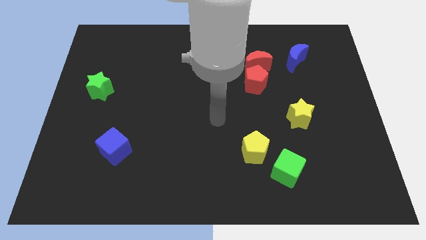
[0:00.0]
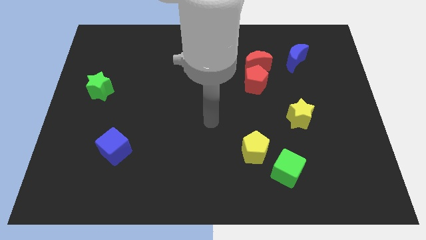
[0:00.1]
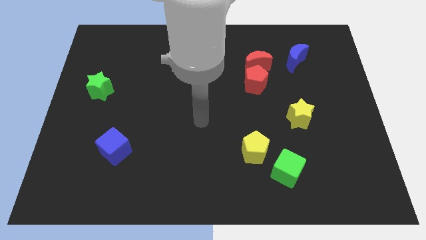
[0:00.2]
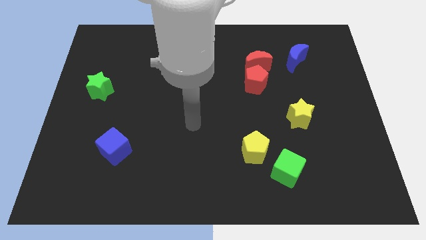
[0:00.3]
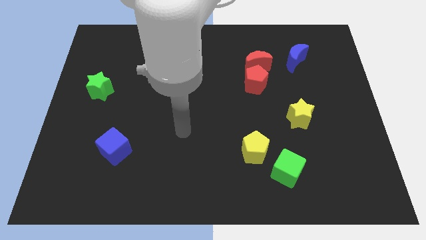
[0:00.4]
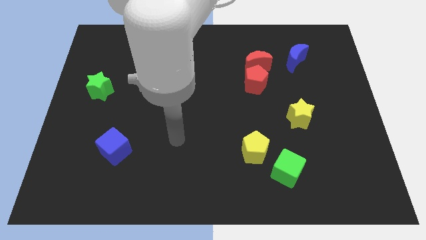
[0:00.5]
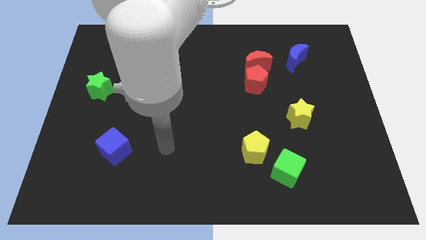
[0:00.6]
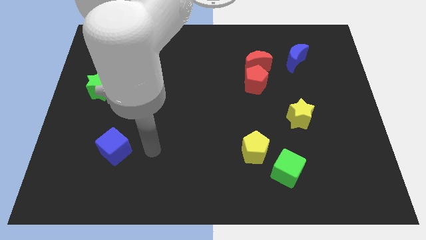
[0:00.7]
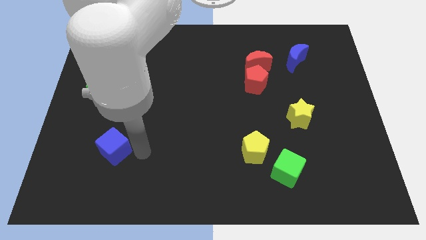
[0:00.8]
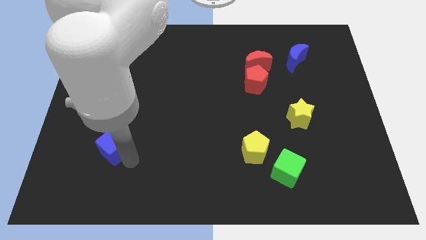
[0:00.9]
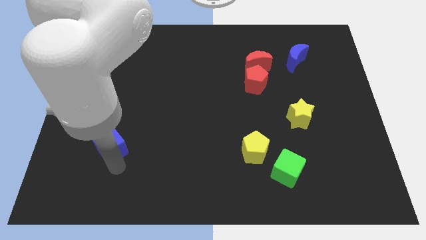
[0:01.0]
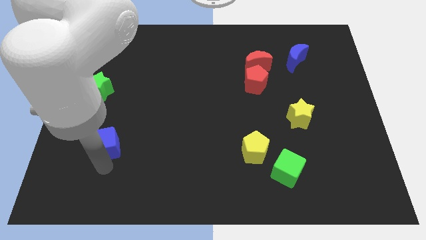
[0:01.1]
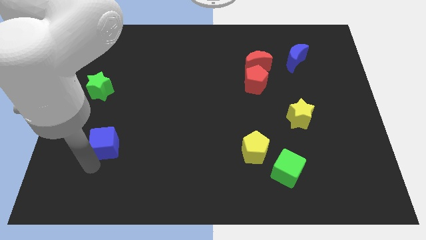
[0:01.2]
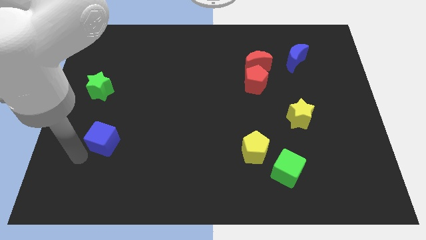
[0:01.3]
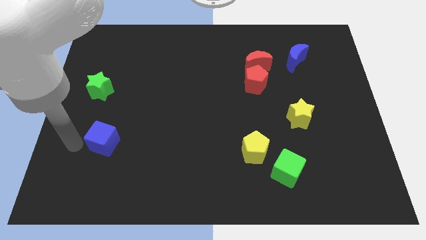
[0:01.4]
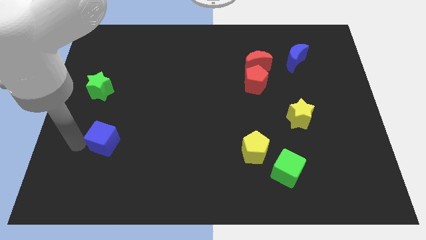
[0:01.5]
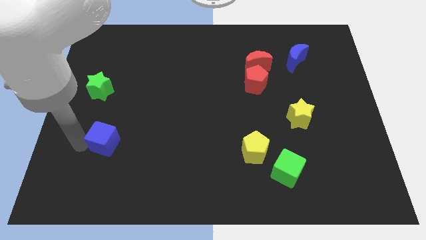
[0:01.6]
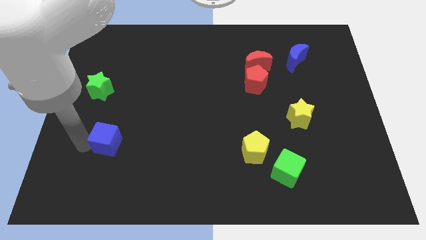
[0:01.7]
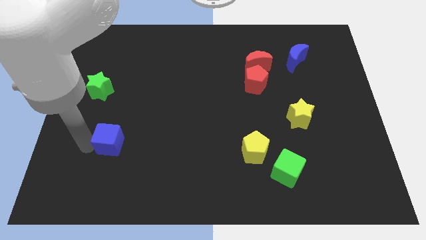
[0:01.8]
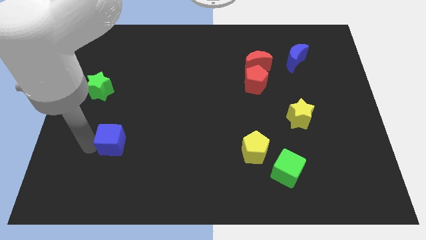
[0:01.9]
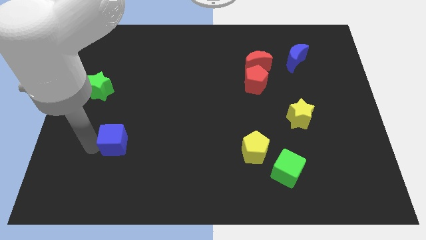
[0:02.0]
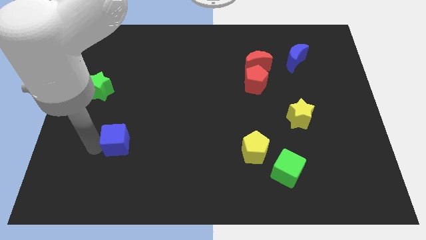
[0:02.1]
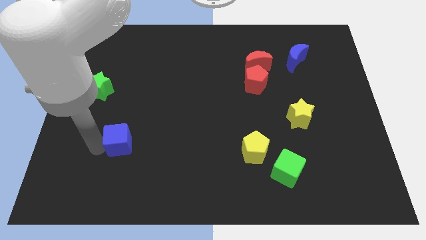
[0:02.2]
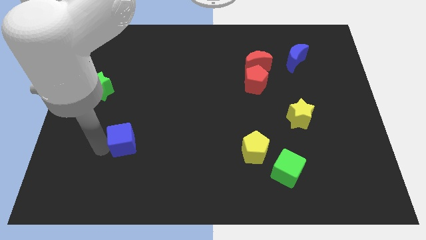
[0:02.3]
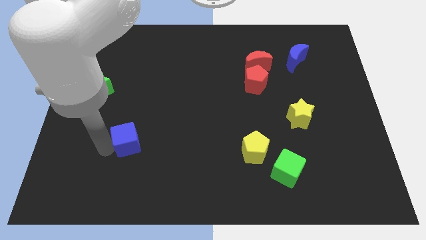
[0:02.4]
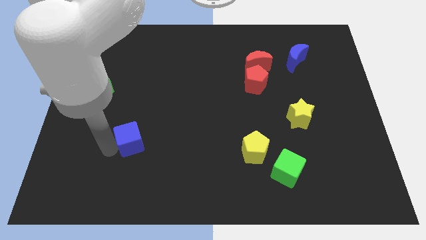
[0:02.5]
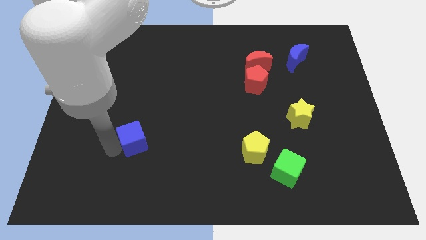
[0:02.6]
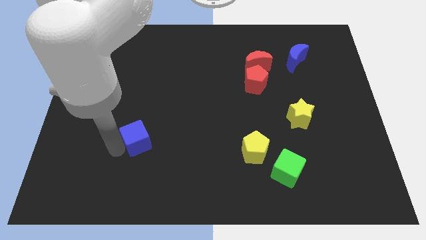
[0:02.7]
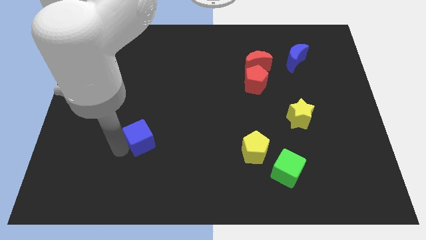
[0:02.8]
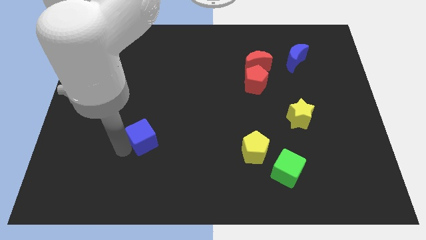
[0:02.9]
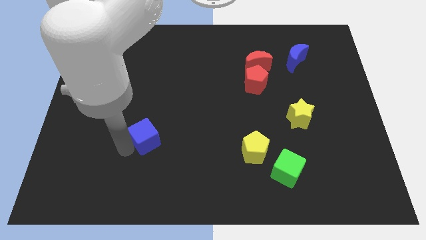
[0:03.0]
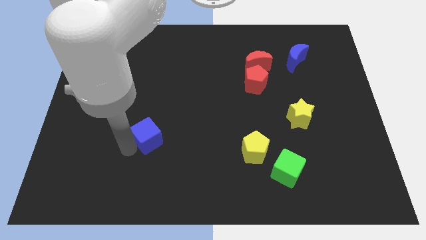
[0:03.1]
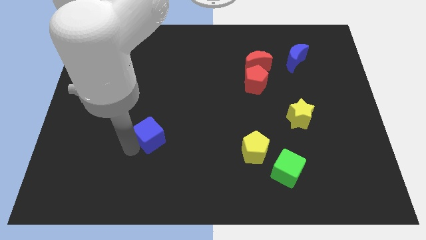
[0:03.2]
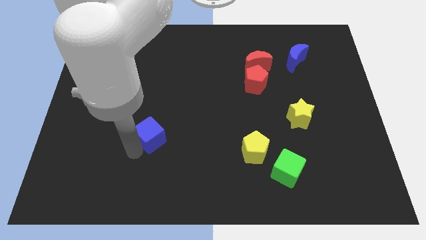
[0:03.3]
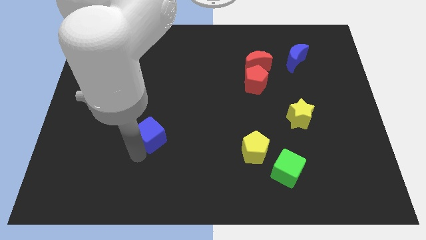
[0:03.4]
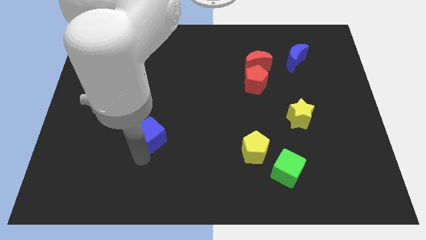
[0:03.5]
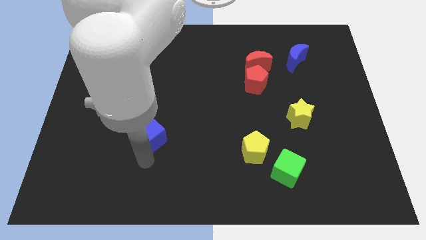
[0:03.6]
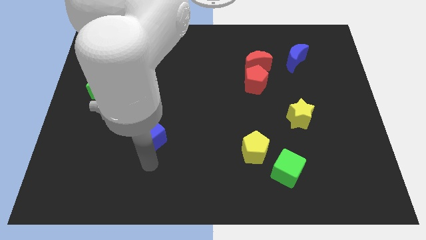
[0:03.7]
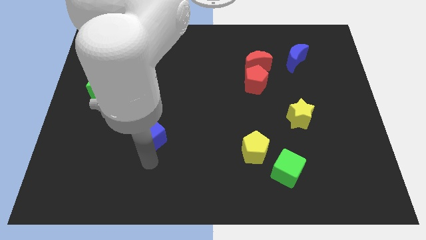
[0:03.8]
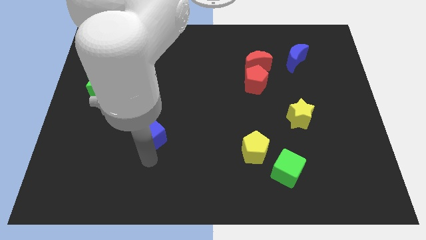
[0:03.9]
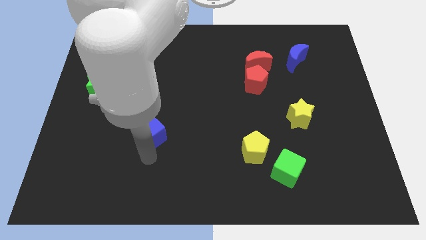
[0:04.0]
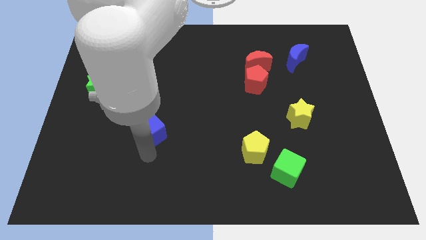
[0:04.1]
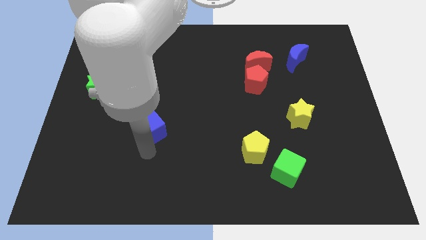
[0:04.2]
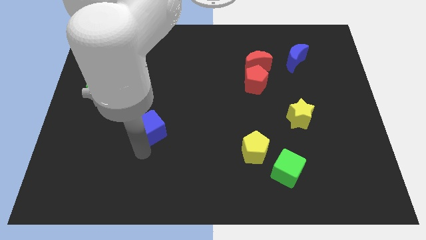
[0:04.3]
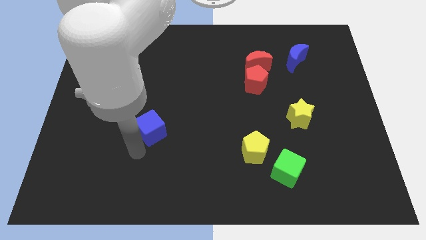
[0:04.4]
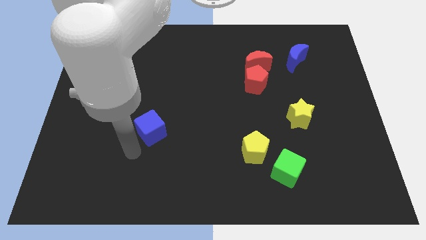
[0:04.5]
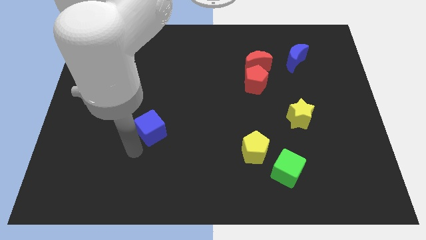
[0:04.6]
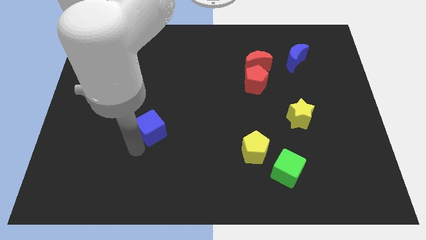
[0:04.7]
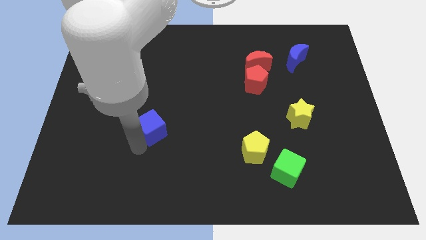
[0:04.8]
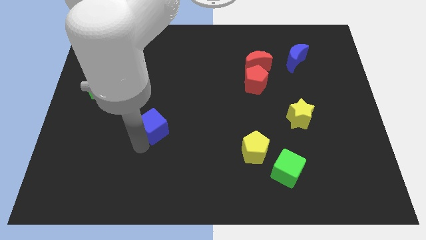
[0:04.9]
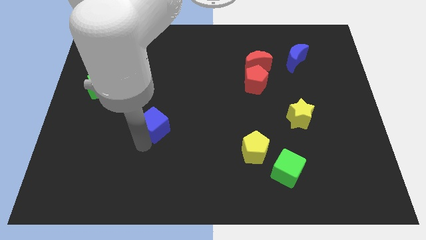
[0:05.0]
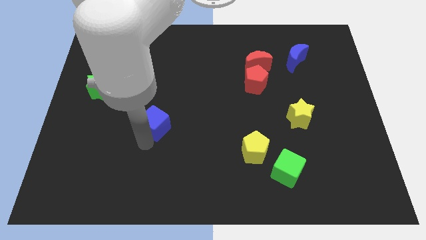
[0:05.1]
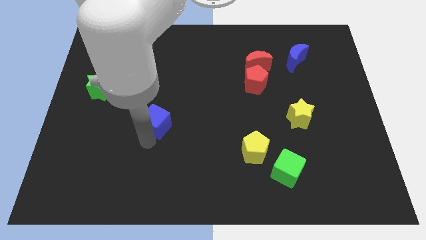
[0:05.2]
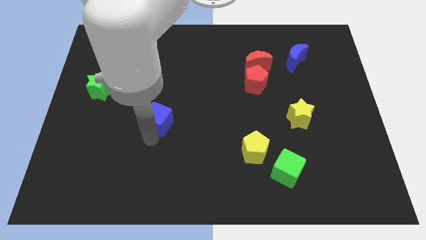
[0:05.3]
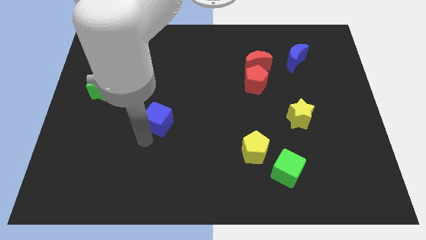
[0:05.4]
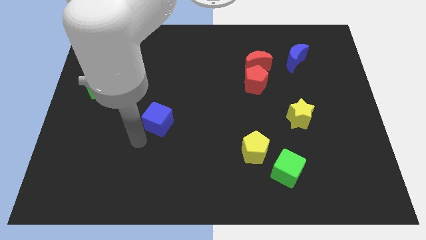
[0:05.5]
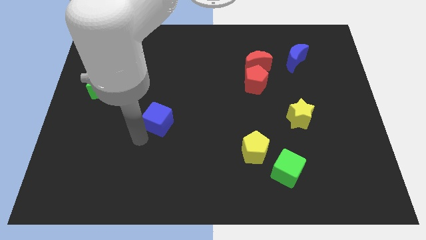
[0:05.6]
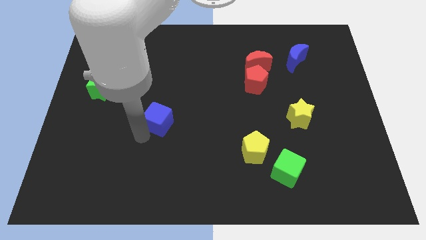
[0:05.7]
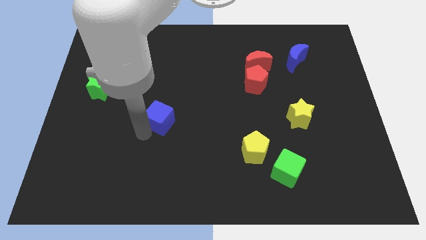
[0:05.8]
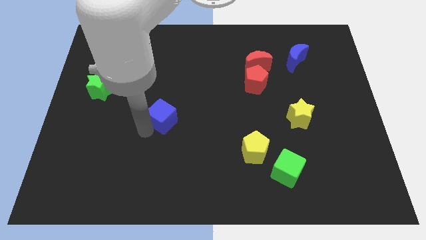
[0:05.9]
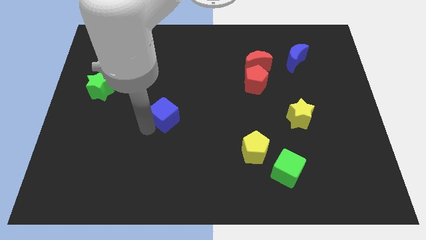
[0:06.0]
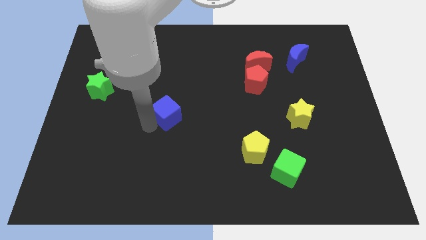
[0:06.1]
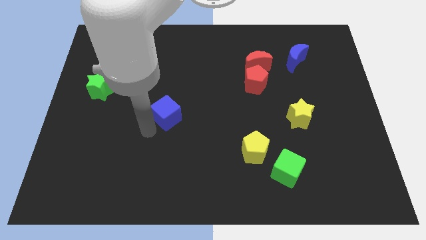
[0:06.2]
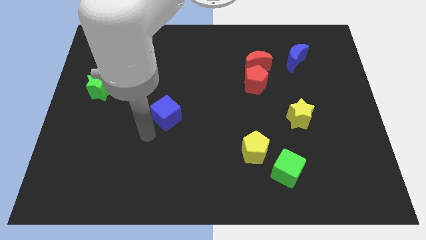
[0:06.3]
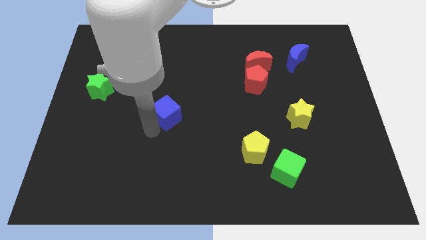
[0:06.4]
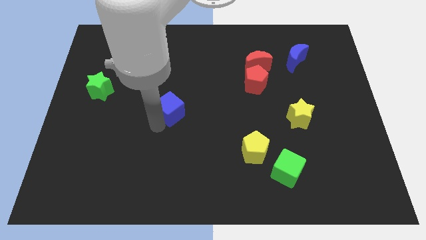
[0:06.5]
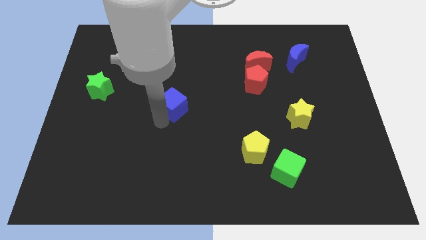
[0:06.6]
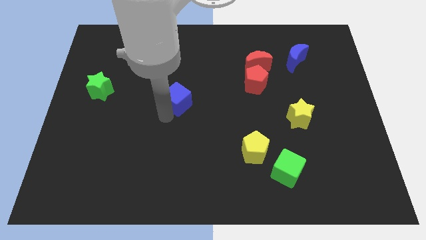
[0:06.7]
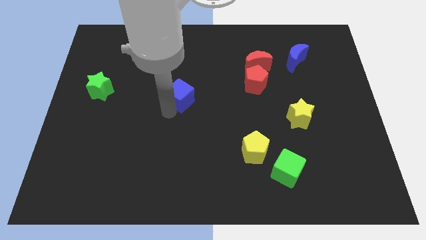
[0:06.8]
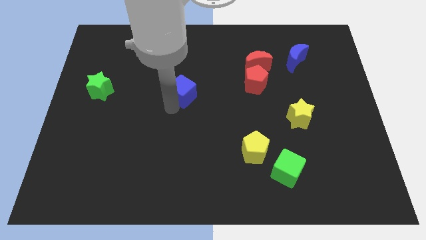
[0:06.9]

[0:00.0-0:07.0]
push the blue cube upwards and right diagonally

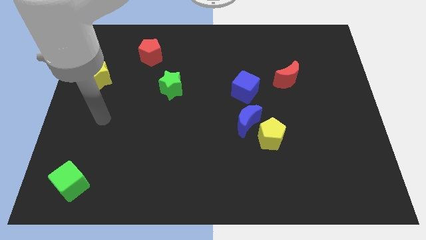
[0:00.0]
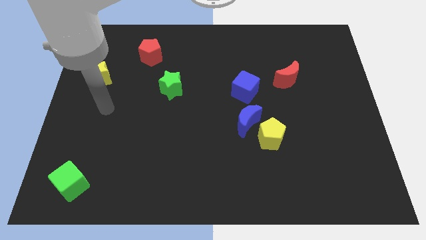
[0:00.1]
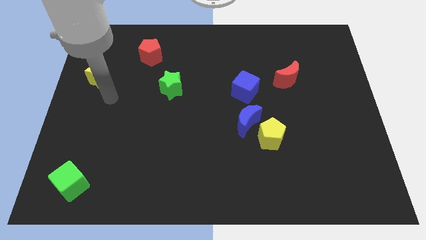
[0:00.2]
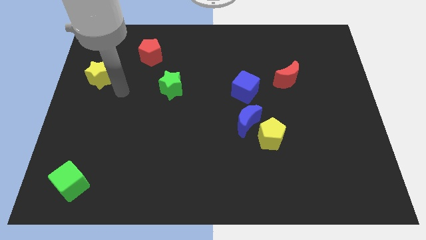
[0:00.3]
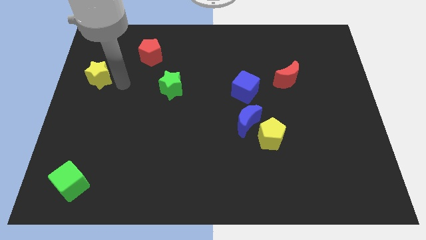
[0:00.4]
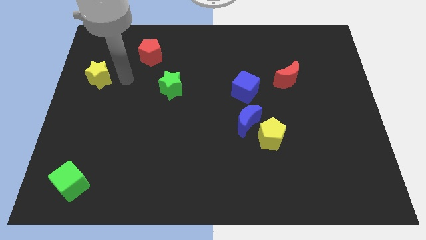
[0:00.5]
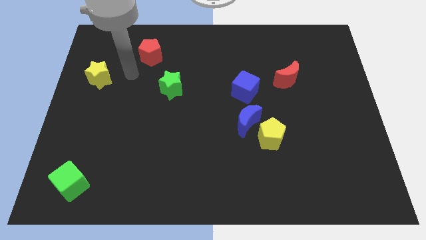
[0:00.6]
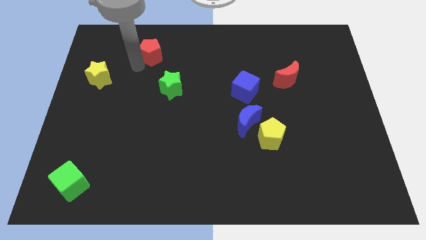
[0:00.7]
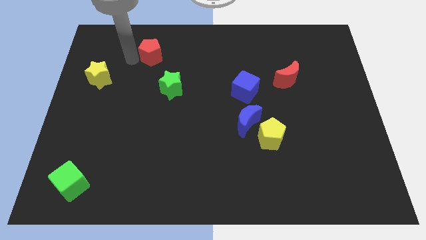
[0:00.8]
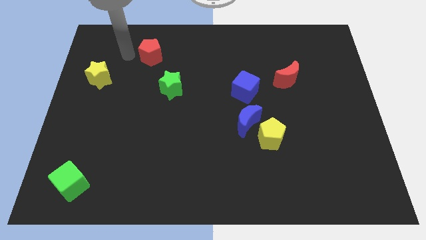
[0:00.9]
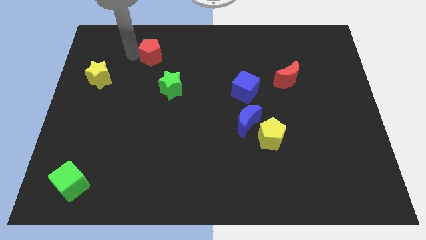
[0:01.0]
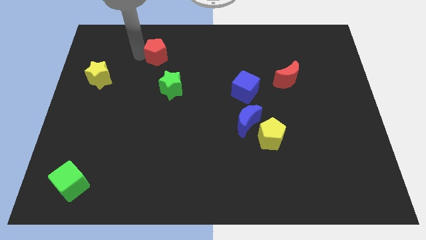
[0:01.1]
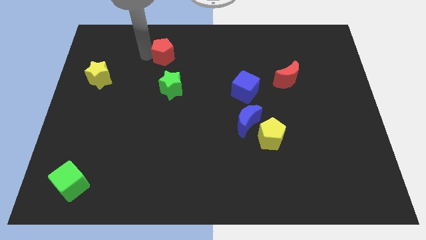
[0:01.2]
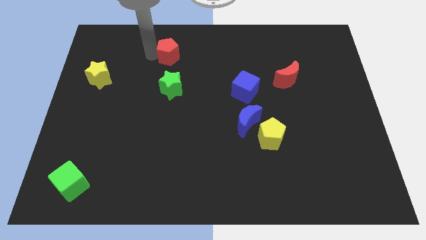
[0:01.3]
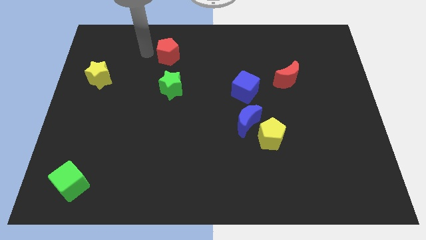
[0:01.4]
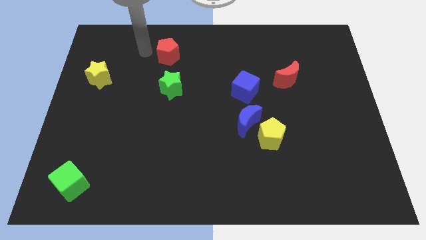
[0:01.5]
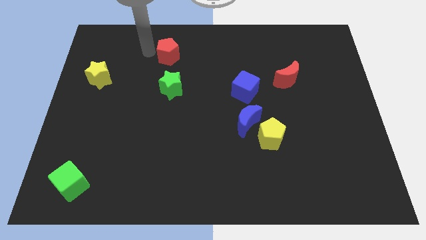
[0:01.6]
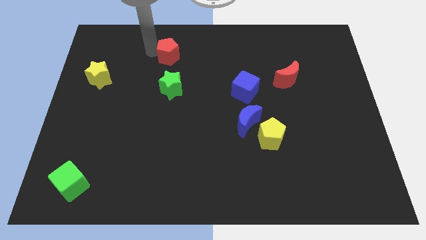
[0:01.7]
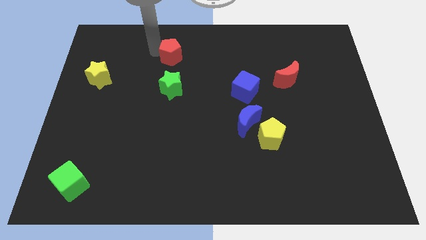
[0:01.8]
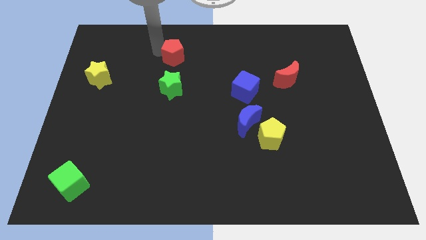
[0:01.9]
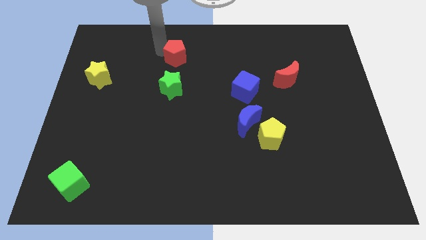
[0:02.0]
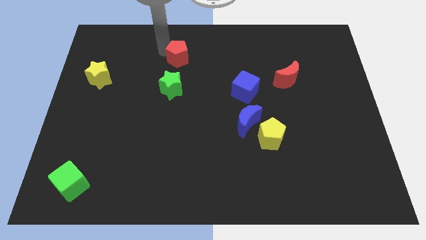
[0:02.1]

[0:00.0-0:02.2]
move the red pentagon to the right a little bit
